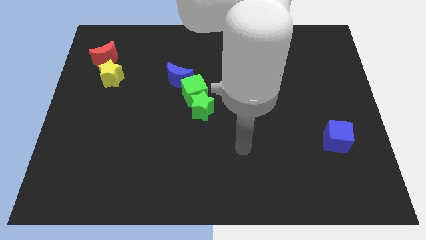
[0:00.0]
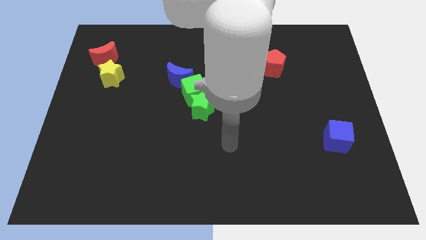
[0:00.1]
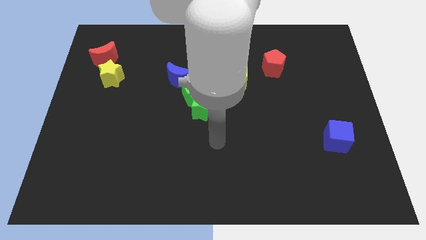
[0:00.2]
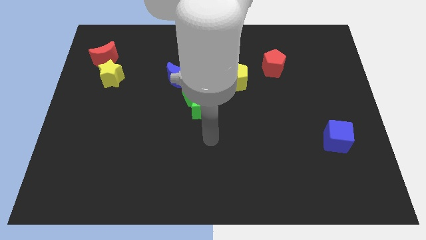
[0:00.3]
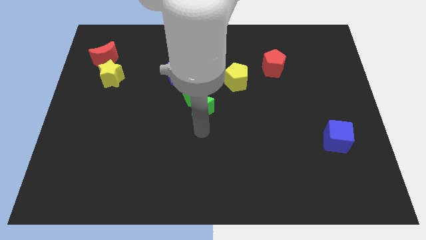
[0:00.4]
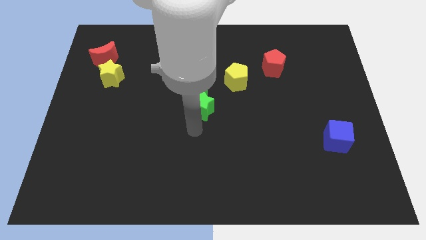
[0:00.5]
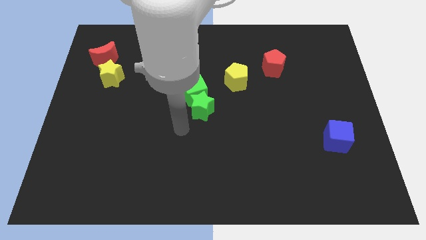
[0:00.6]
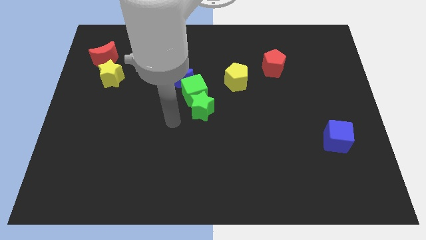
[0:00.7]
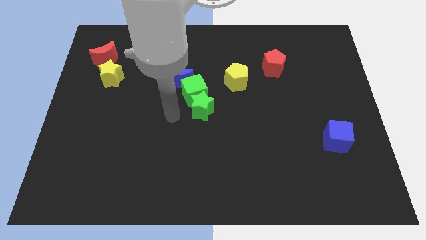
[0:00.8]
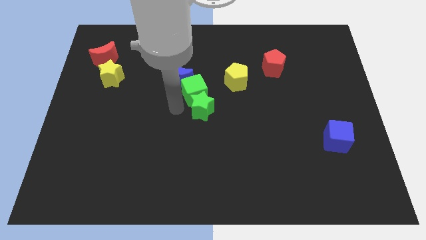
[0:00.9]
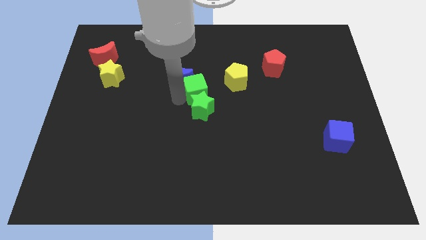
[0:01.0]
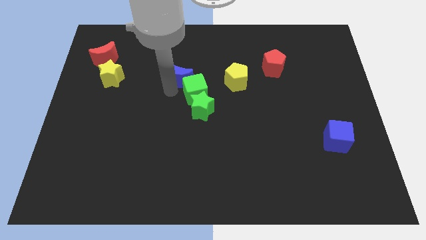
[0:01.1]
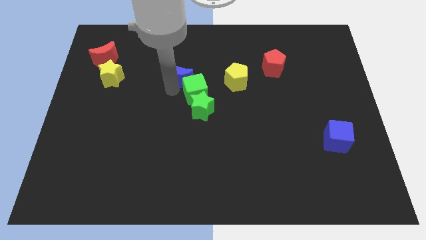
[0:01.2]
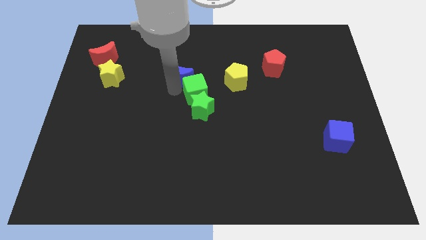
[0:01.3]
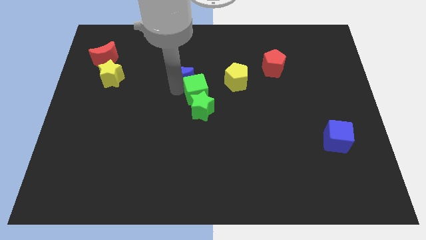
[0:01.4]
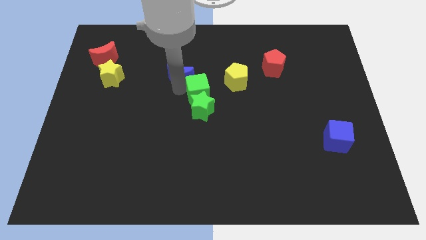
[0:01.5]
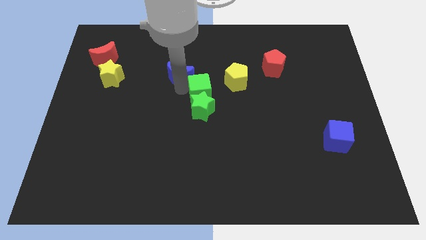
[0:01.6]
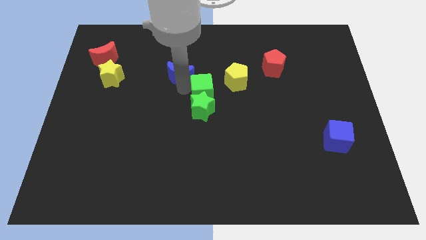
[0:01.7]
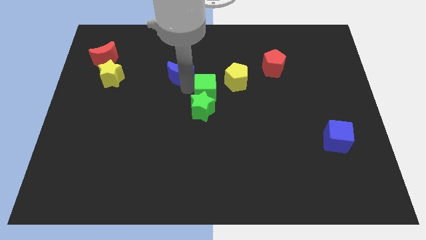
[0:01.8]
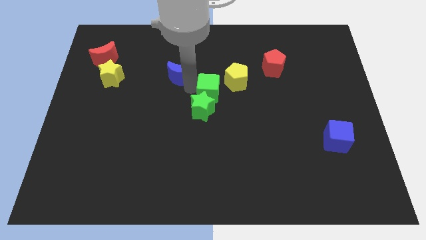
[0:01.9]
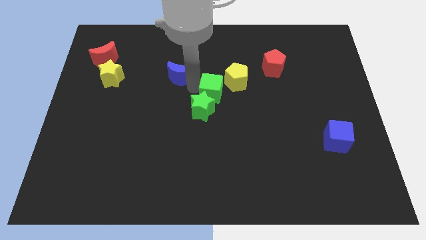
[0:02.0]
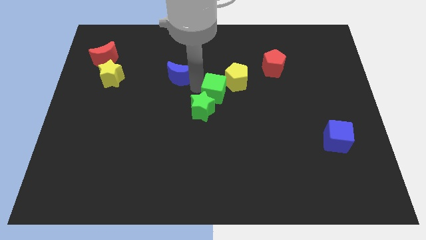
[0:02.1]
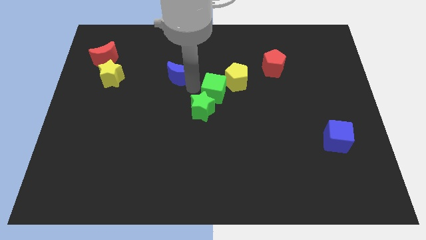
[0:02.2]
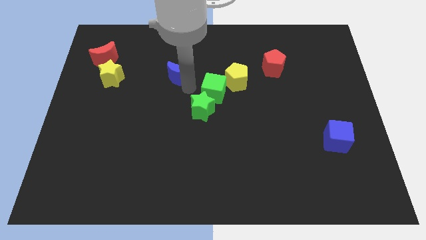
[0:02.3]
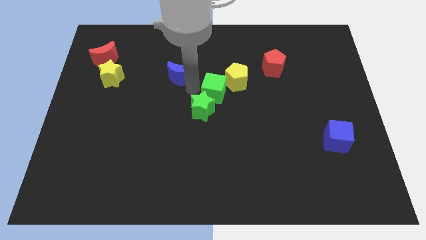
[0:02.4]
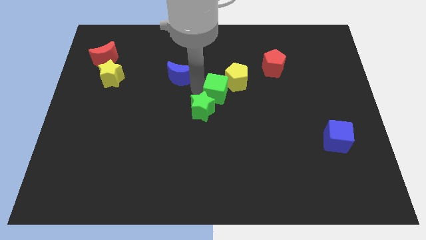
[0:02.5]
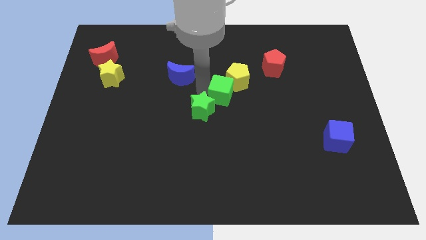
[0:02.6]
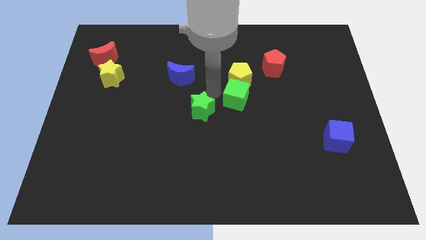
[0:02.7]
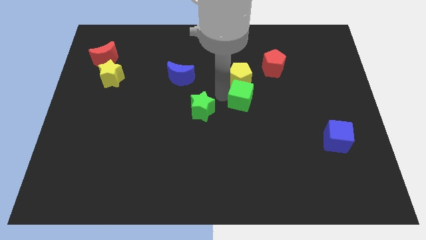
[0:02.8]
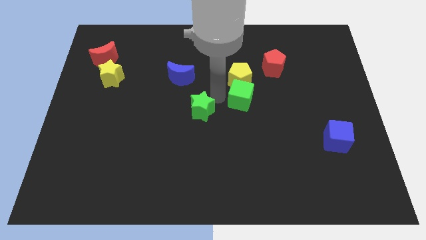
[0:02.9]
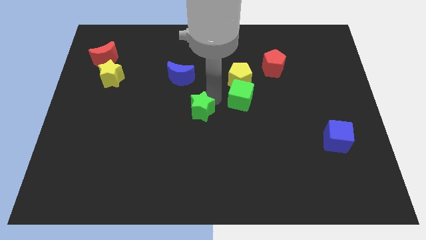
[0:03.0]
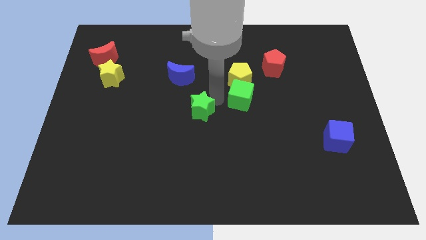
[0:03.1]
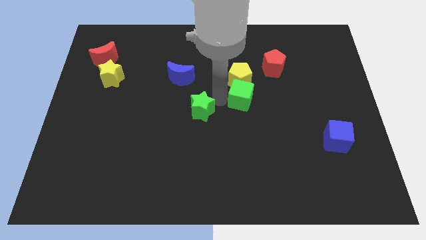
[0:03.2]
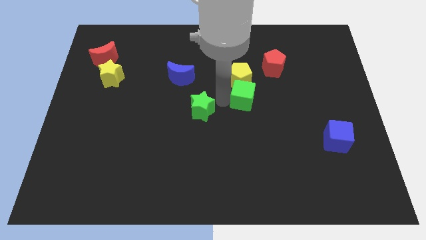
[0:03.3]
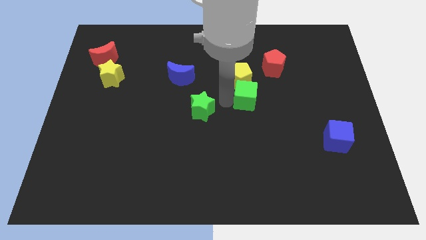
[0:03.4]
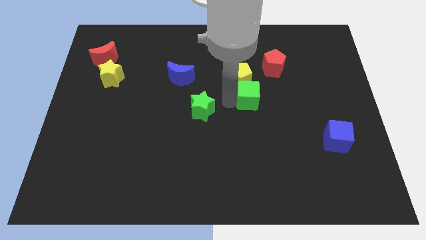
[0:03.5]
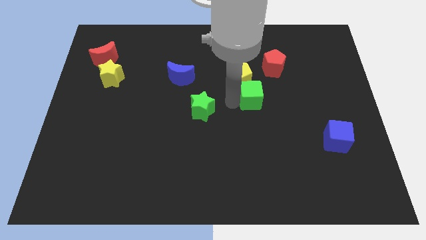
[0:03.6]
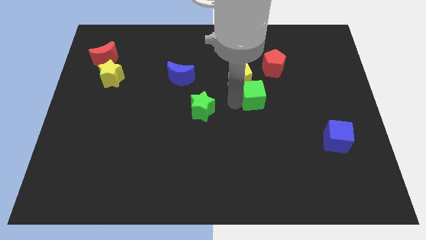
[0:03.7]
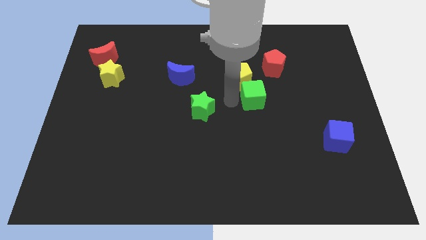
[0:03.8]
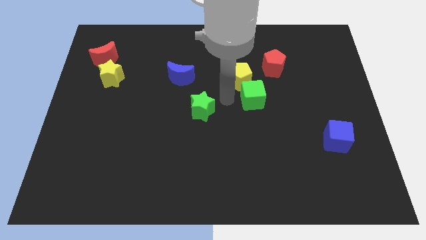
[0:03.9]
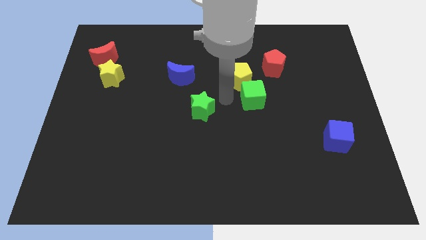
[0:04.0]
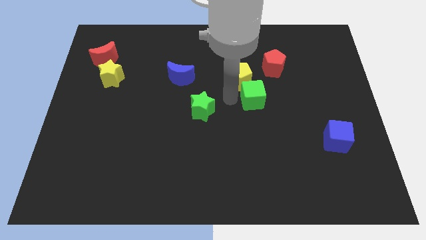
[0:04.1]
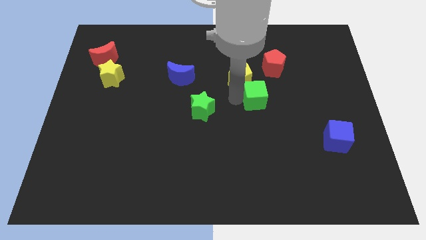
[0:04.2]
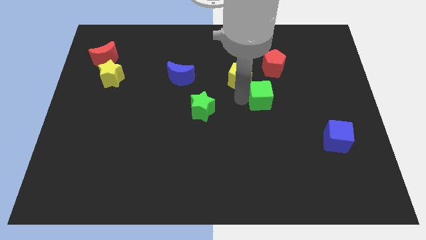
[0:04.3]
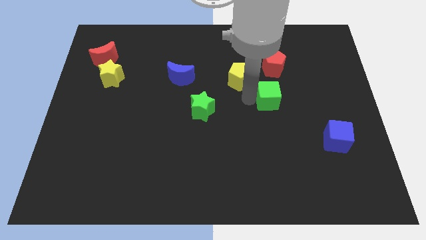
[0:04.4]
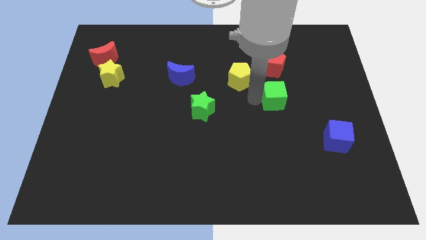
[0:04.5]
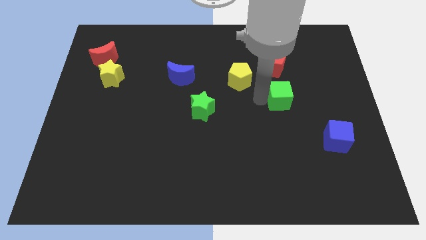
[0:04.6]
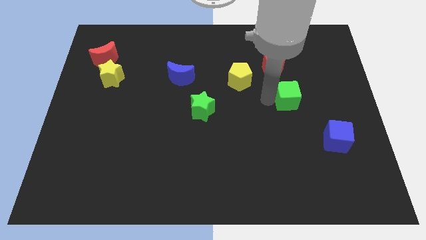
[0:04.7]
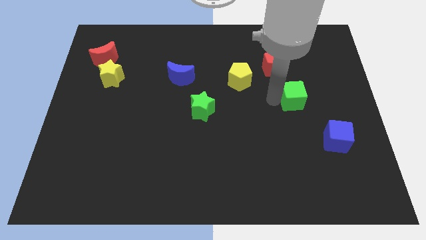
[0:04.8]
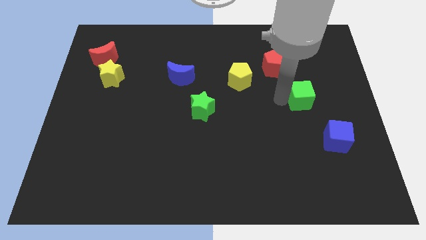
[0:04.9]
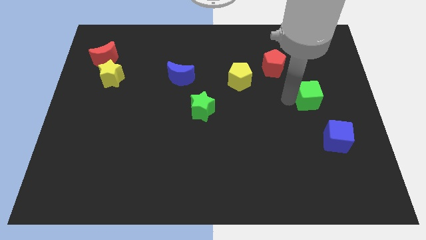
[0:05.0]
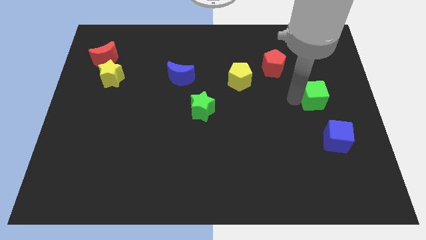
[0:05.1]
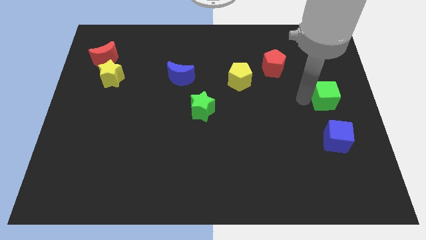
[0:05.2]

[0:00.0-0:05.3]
push the green cube to the right side

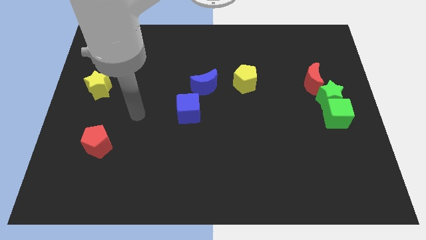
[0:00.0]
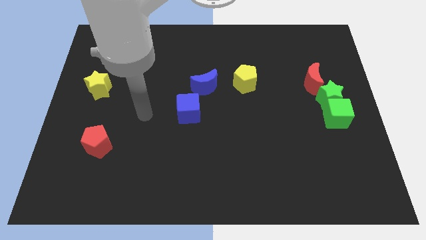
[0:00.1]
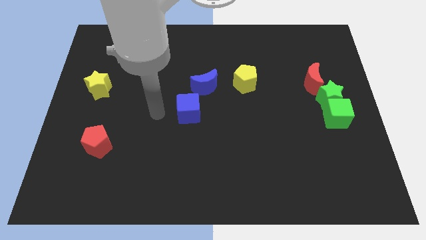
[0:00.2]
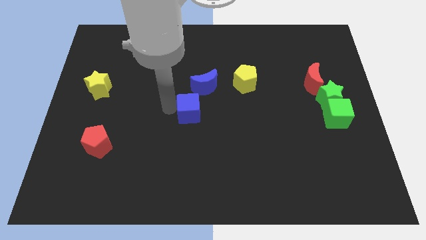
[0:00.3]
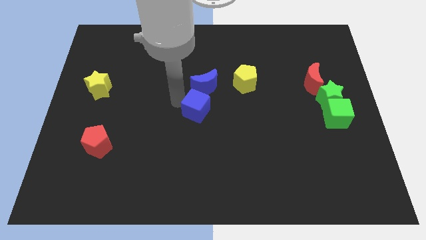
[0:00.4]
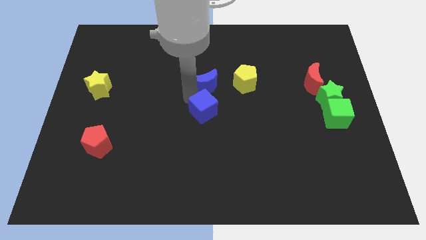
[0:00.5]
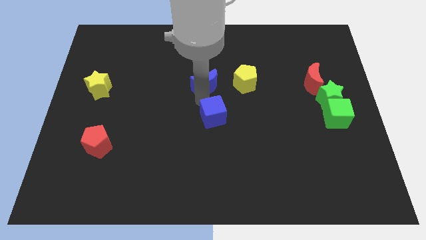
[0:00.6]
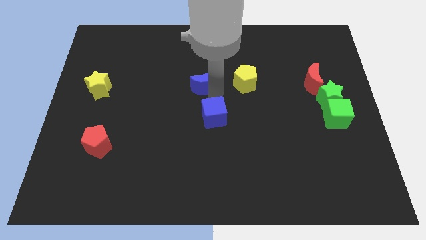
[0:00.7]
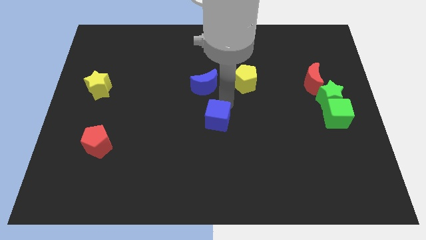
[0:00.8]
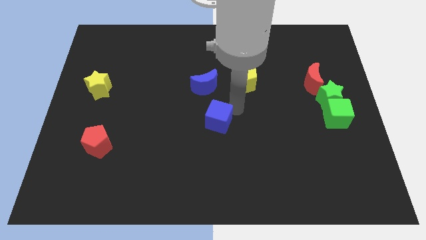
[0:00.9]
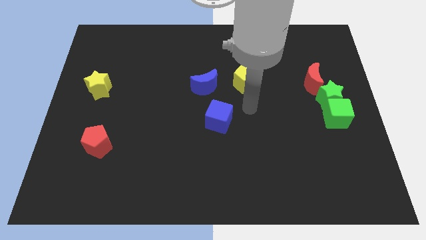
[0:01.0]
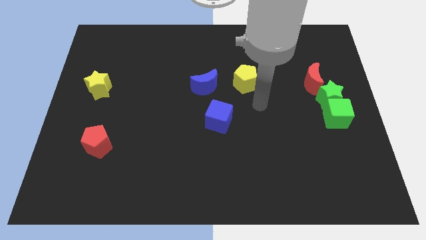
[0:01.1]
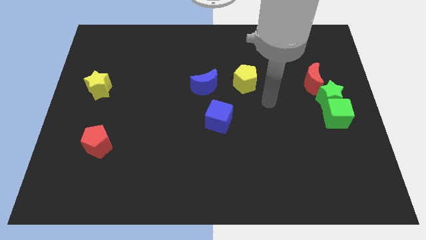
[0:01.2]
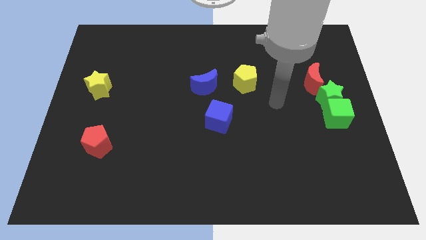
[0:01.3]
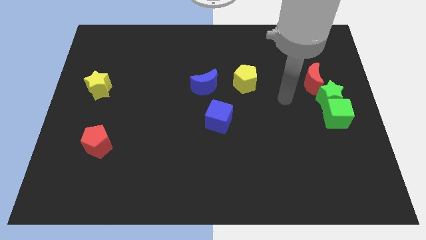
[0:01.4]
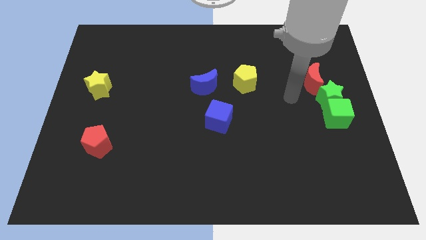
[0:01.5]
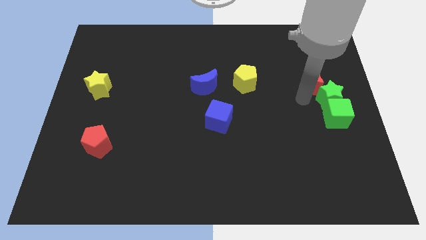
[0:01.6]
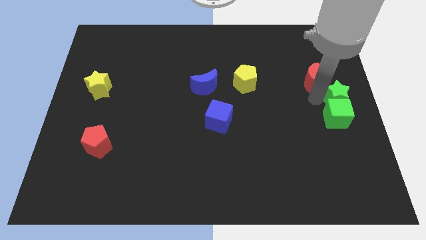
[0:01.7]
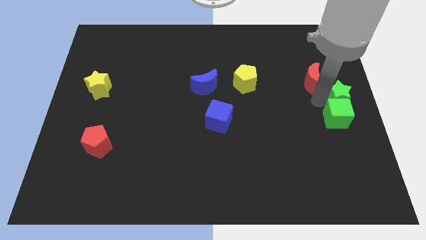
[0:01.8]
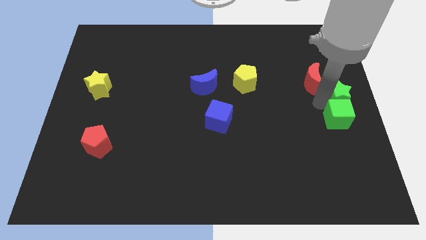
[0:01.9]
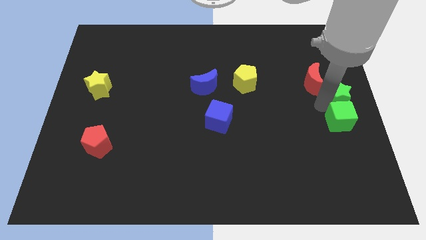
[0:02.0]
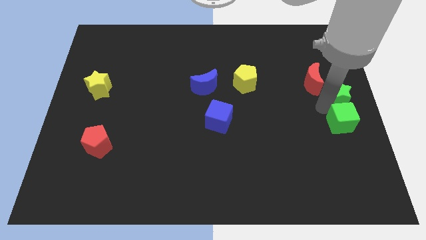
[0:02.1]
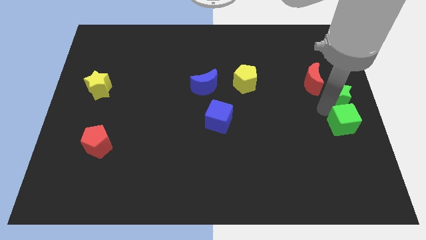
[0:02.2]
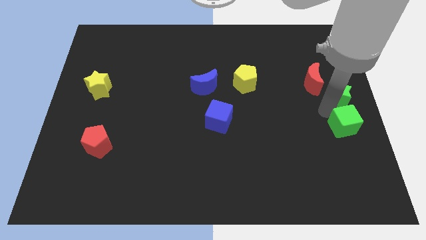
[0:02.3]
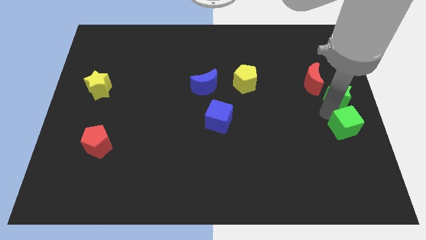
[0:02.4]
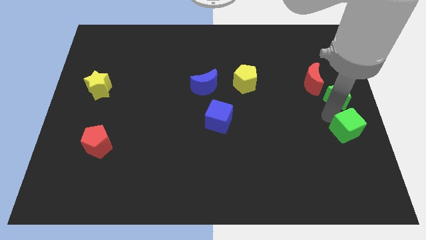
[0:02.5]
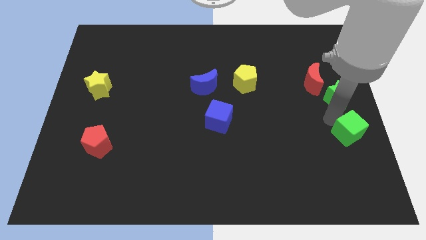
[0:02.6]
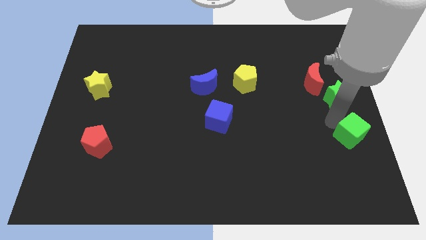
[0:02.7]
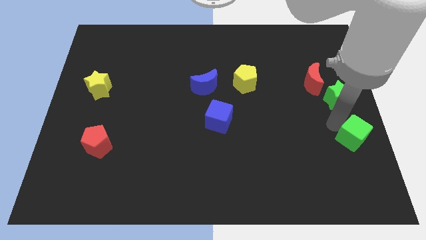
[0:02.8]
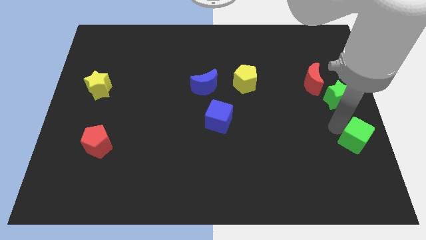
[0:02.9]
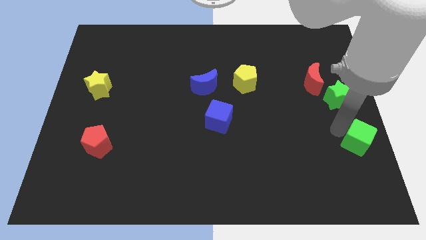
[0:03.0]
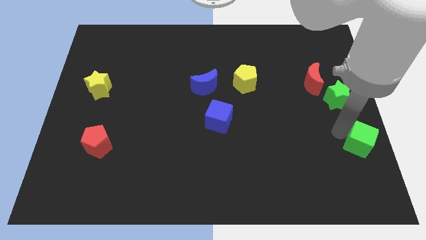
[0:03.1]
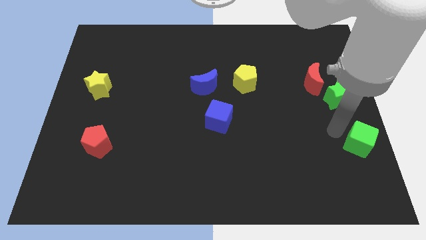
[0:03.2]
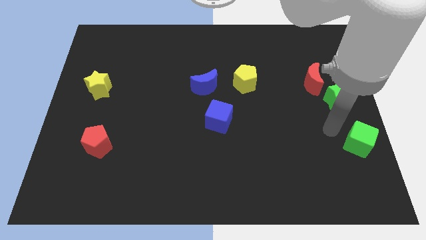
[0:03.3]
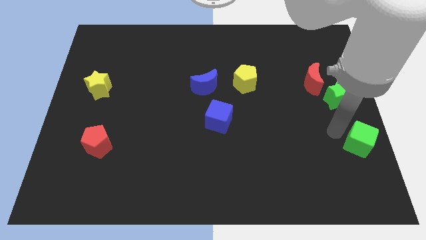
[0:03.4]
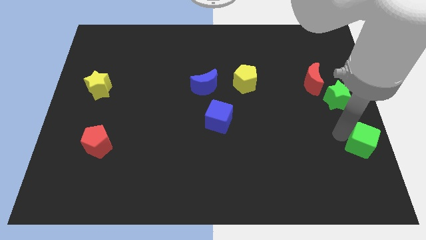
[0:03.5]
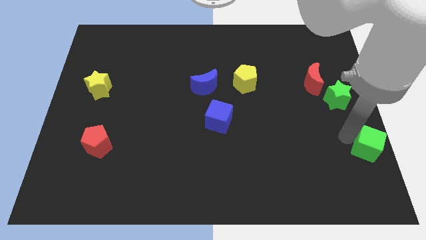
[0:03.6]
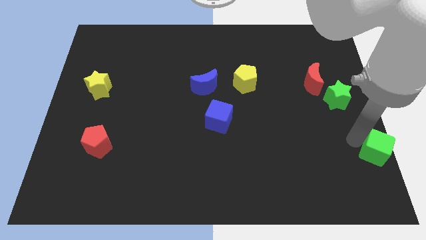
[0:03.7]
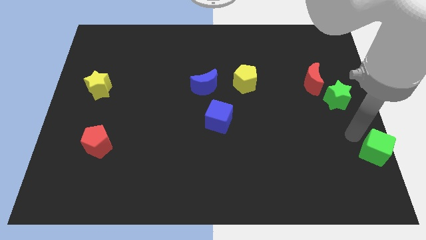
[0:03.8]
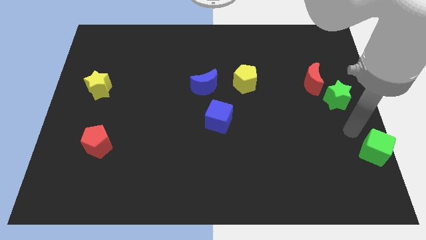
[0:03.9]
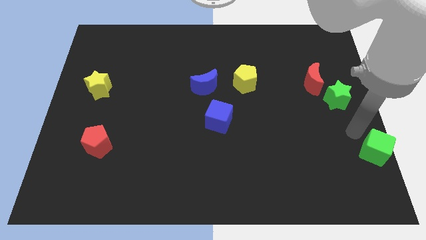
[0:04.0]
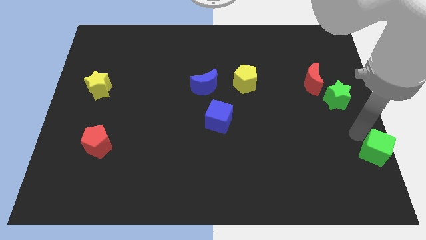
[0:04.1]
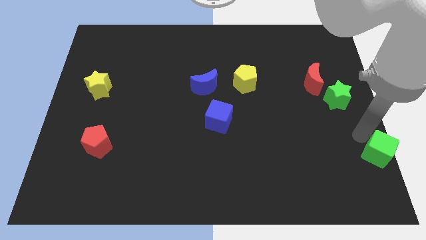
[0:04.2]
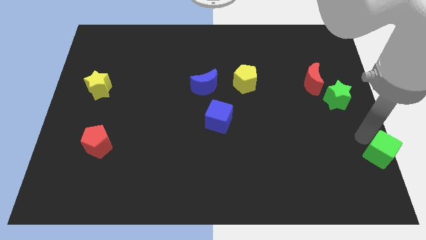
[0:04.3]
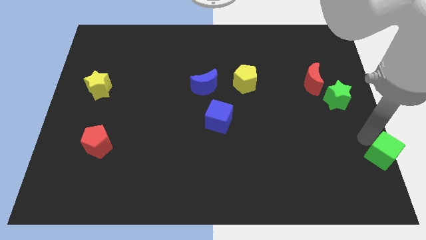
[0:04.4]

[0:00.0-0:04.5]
slide the green cube to the bottom right corner
